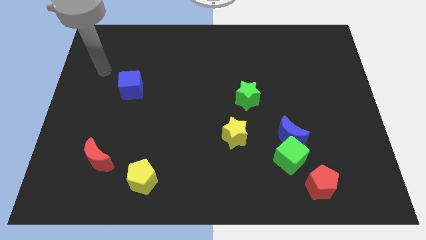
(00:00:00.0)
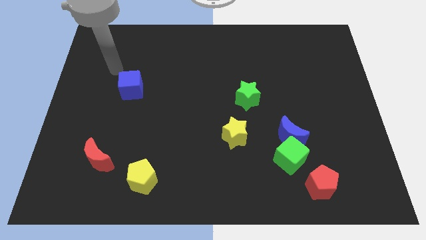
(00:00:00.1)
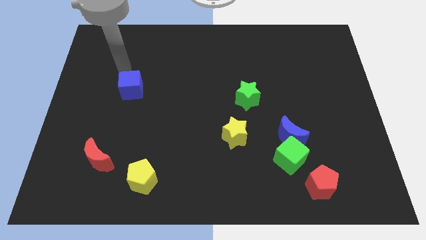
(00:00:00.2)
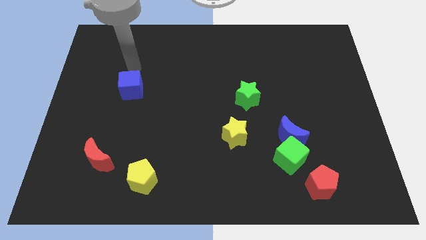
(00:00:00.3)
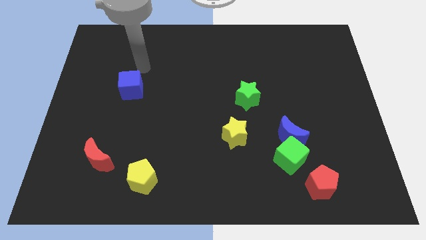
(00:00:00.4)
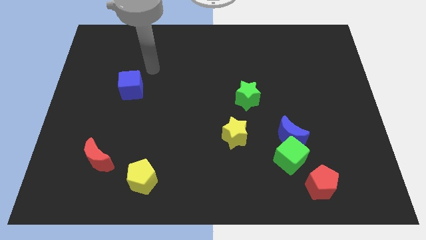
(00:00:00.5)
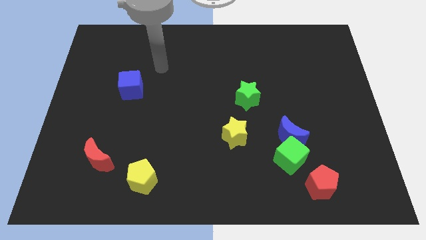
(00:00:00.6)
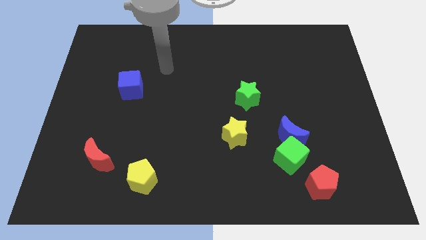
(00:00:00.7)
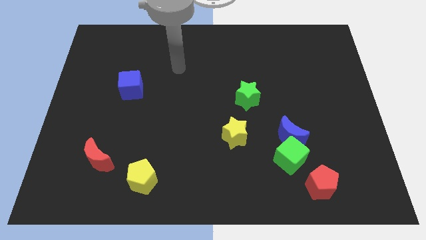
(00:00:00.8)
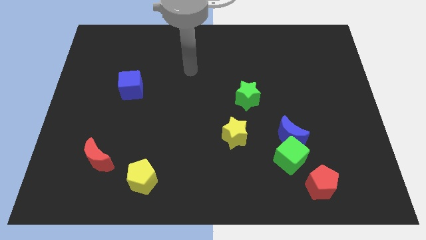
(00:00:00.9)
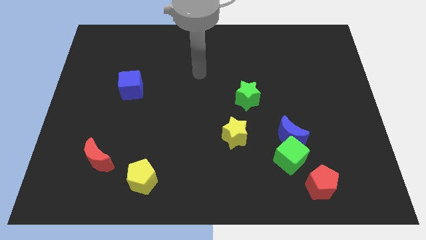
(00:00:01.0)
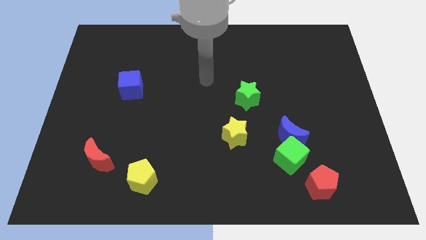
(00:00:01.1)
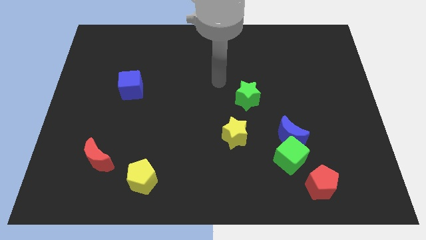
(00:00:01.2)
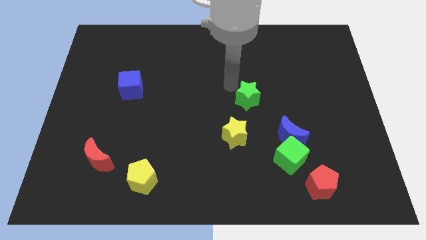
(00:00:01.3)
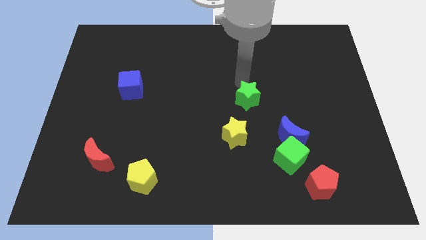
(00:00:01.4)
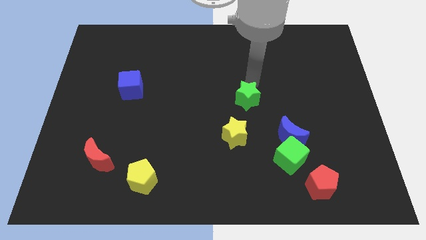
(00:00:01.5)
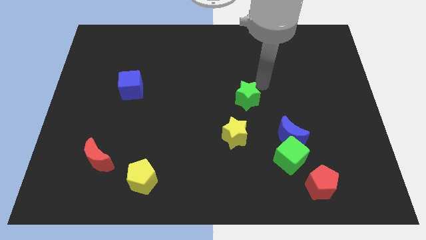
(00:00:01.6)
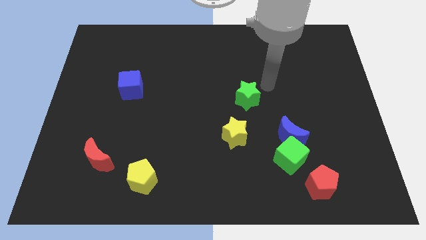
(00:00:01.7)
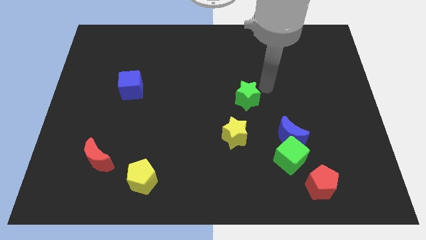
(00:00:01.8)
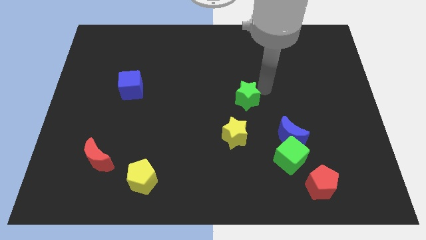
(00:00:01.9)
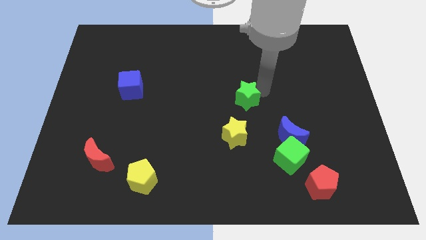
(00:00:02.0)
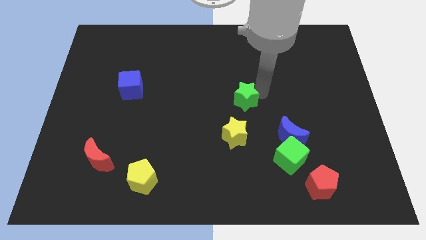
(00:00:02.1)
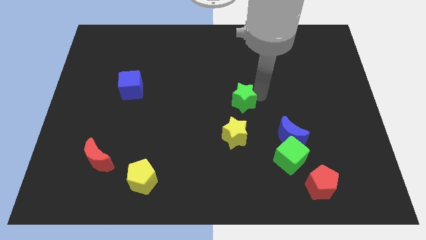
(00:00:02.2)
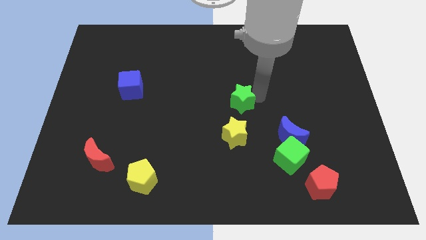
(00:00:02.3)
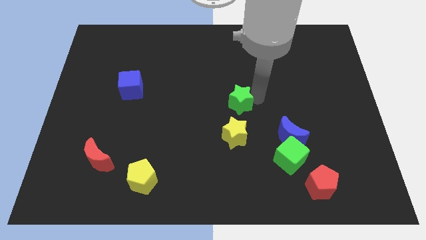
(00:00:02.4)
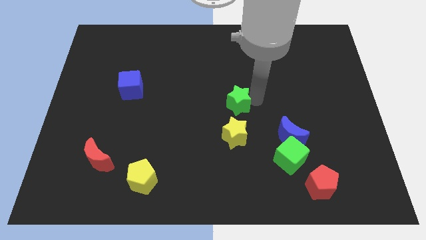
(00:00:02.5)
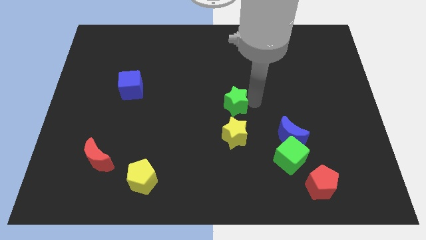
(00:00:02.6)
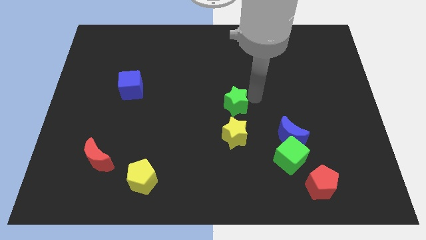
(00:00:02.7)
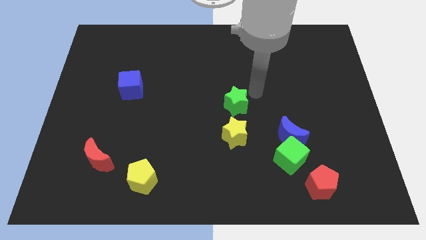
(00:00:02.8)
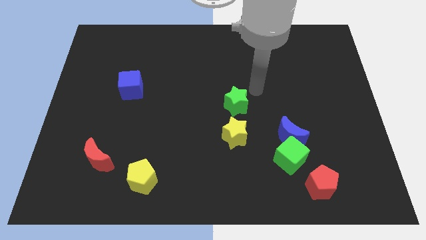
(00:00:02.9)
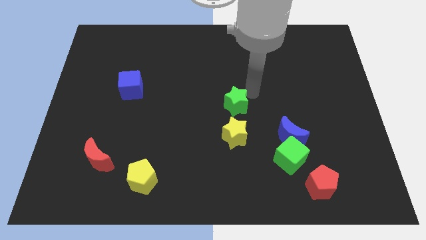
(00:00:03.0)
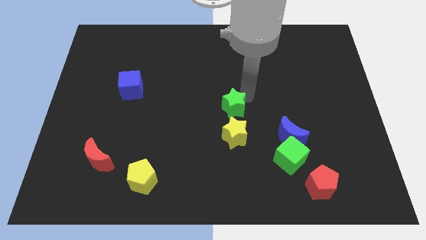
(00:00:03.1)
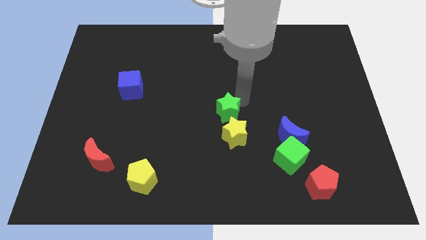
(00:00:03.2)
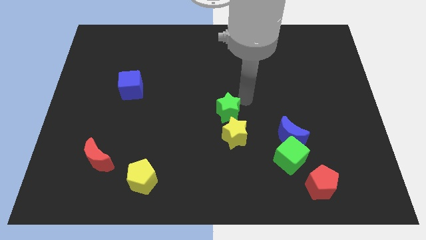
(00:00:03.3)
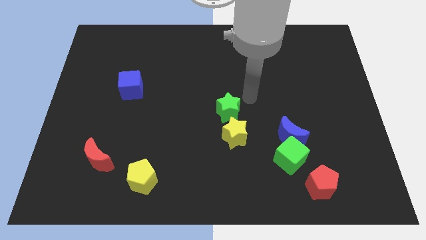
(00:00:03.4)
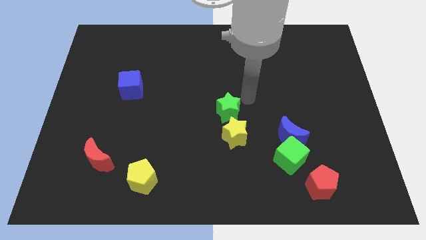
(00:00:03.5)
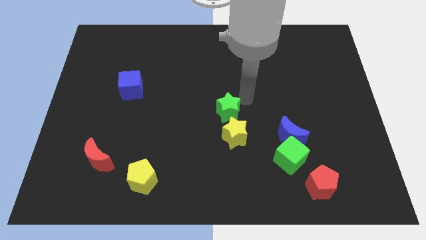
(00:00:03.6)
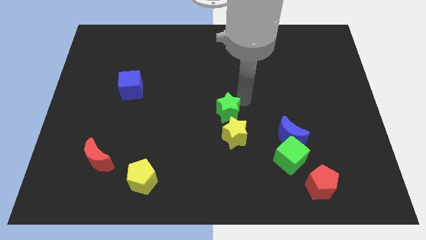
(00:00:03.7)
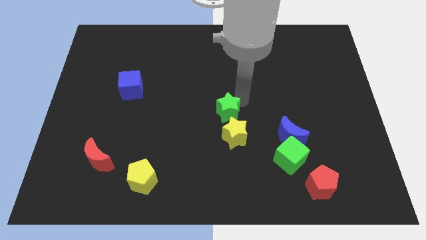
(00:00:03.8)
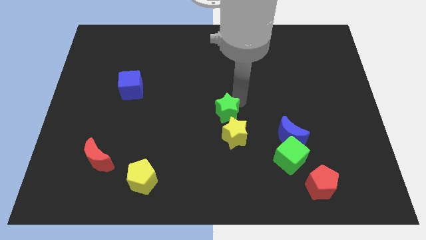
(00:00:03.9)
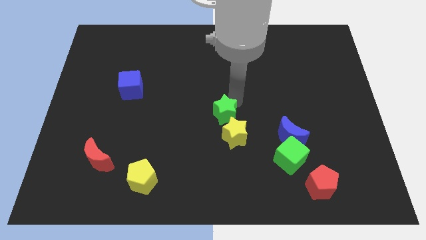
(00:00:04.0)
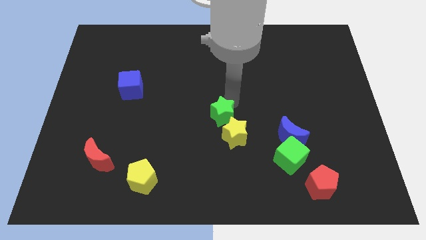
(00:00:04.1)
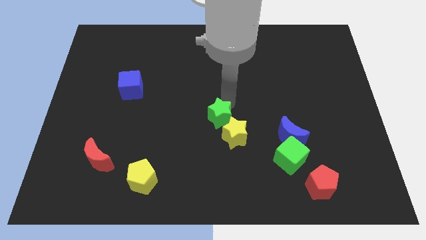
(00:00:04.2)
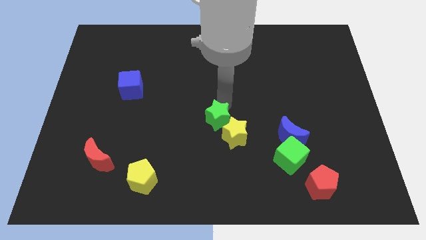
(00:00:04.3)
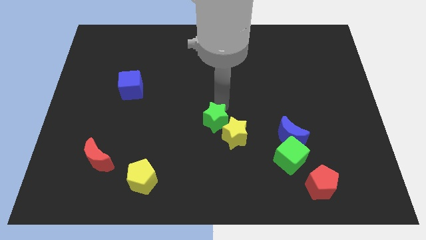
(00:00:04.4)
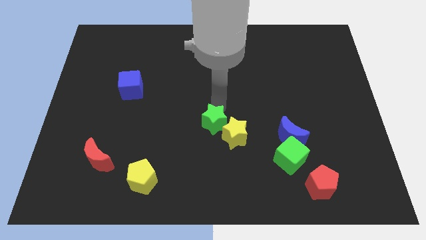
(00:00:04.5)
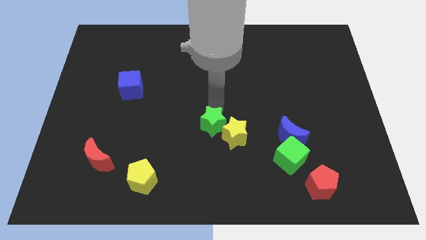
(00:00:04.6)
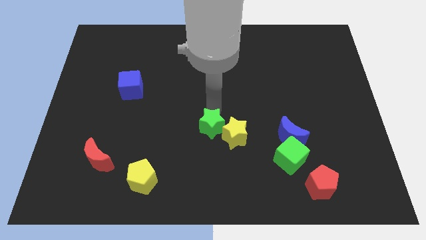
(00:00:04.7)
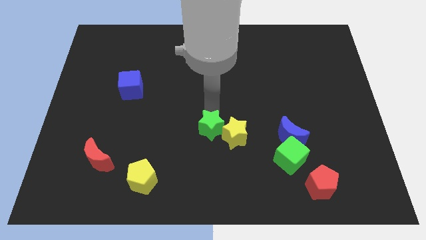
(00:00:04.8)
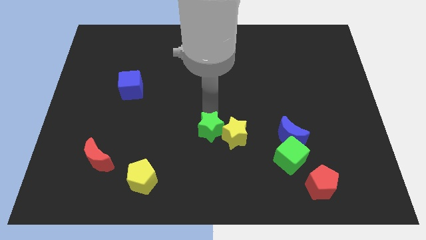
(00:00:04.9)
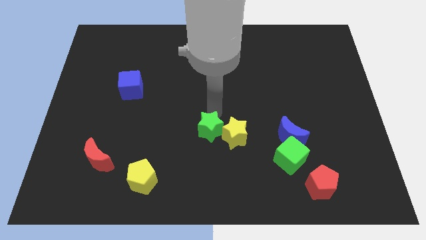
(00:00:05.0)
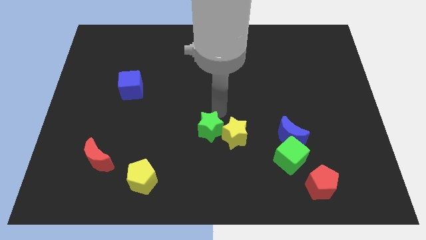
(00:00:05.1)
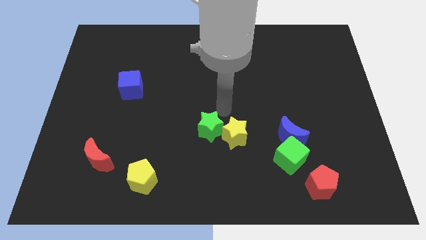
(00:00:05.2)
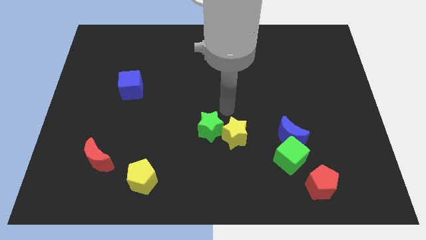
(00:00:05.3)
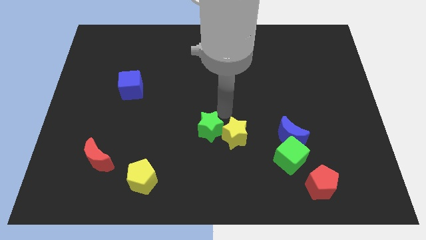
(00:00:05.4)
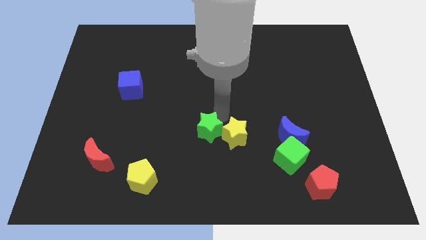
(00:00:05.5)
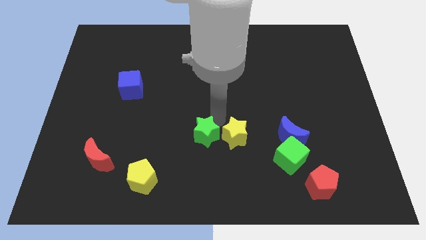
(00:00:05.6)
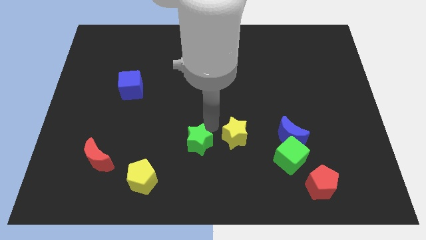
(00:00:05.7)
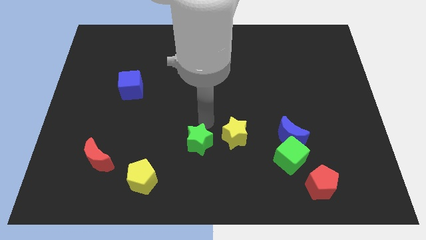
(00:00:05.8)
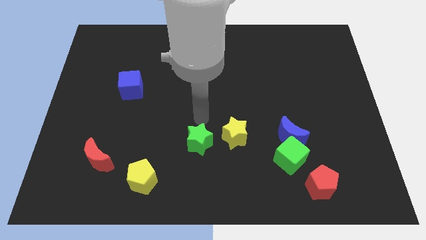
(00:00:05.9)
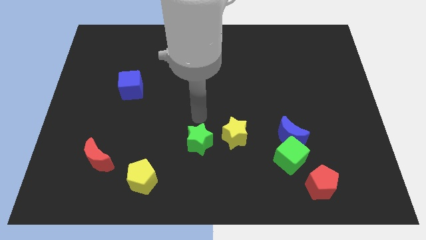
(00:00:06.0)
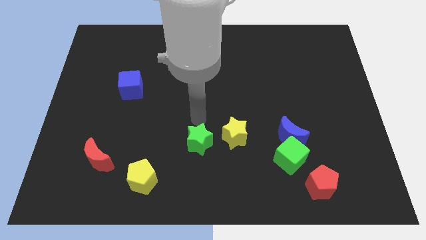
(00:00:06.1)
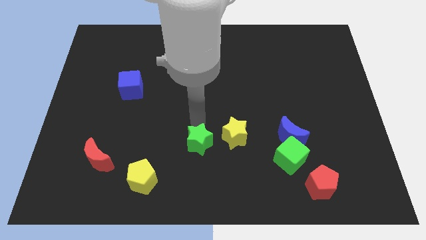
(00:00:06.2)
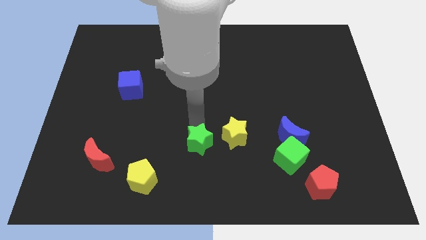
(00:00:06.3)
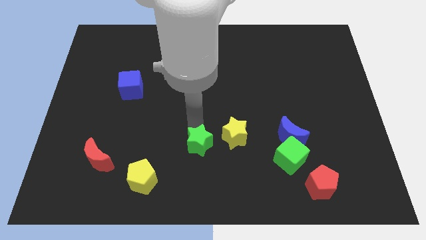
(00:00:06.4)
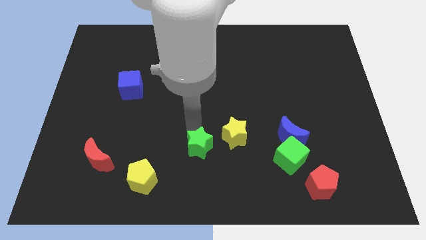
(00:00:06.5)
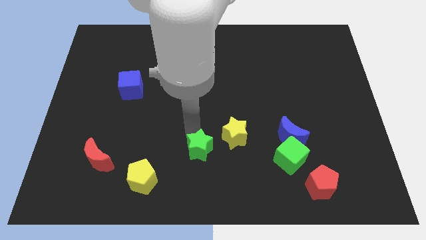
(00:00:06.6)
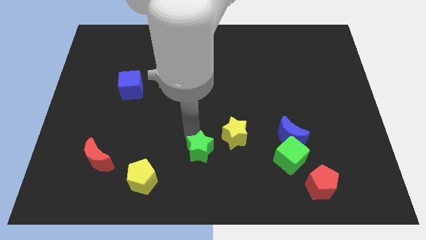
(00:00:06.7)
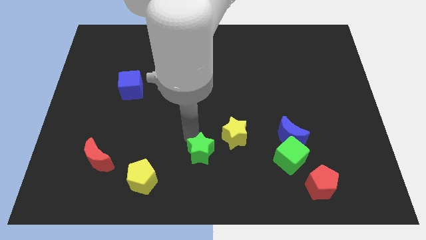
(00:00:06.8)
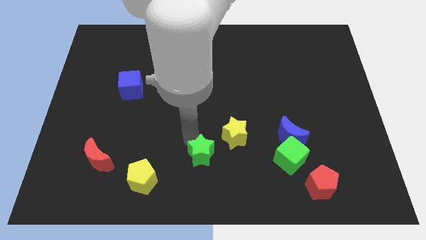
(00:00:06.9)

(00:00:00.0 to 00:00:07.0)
slide the green star to the bottom side

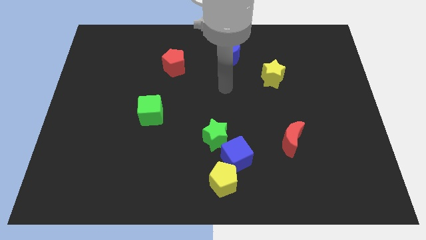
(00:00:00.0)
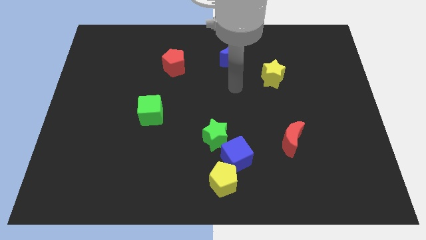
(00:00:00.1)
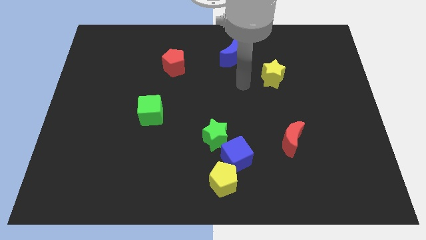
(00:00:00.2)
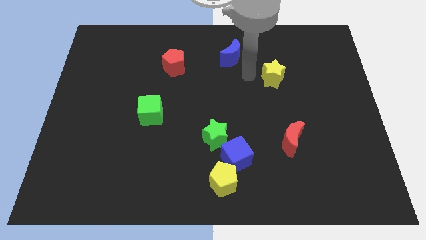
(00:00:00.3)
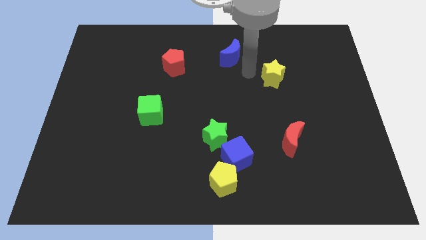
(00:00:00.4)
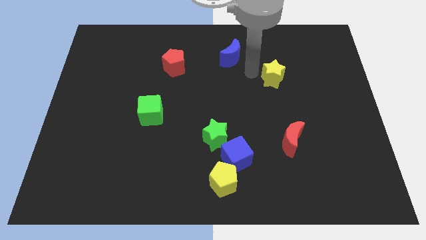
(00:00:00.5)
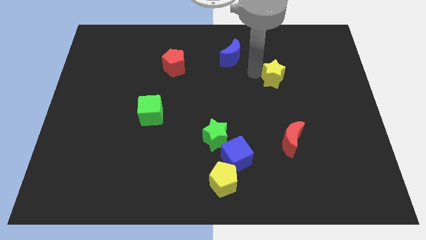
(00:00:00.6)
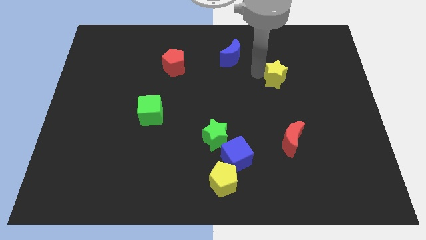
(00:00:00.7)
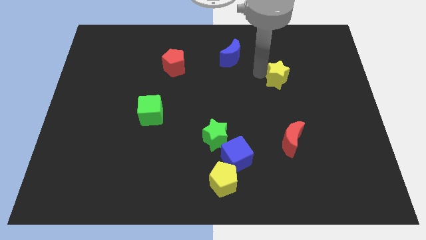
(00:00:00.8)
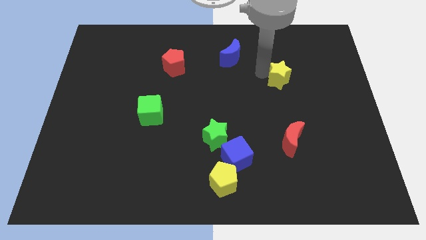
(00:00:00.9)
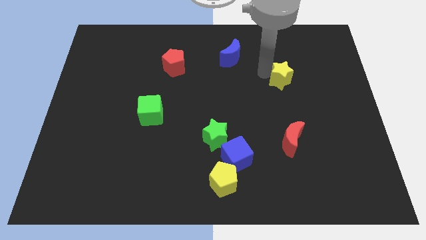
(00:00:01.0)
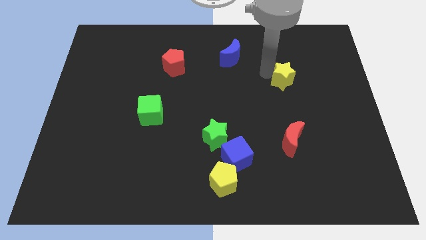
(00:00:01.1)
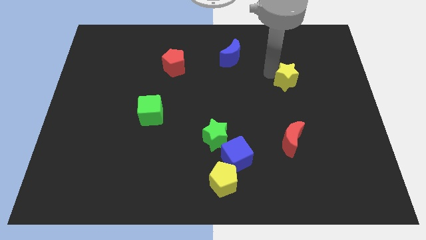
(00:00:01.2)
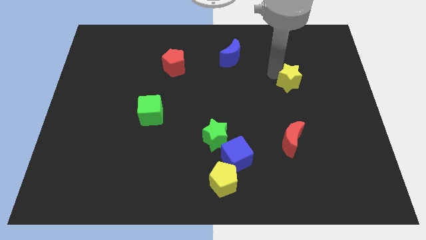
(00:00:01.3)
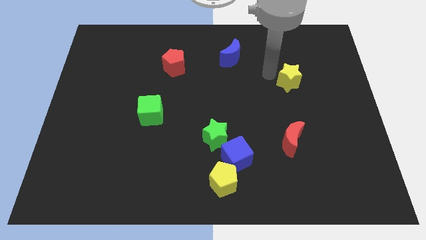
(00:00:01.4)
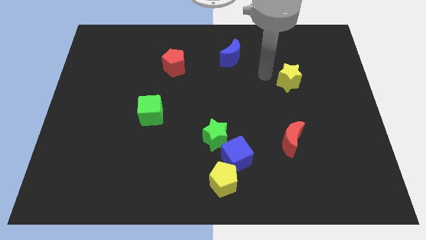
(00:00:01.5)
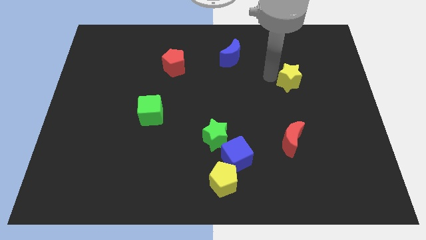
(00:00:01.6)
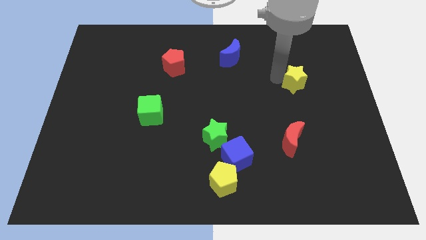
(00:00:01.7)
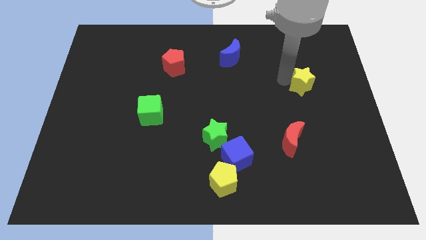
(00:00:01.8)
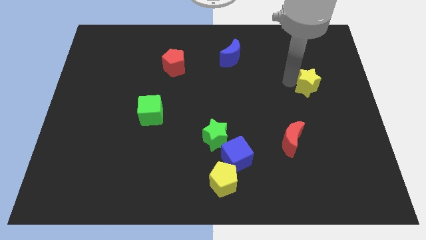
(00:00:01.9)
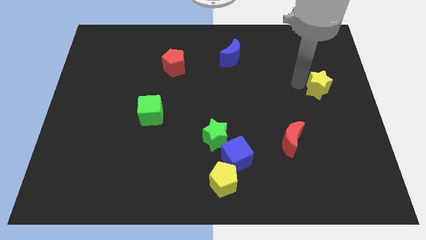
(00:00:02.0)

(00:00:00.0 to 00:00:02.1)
move the yellow star to the right side of the board
